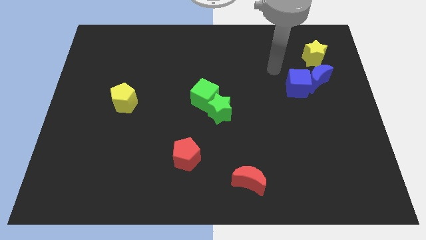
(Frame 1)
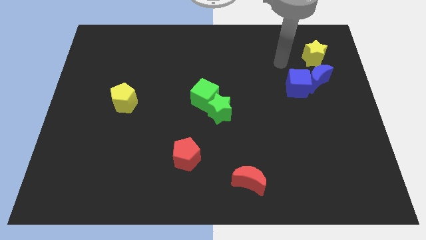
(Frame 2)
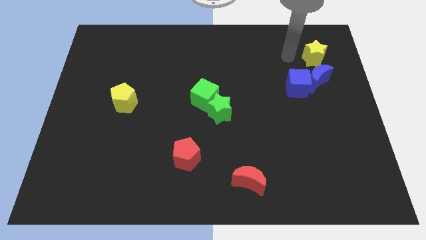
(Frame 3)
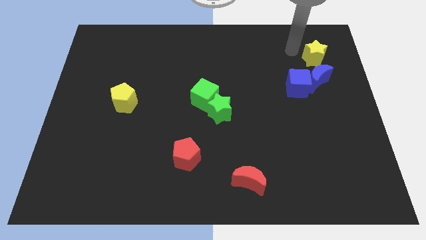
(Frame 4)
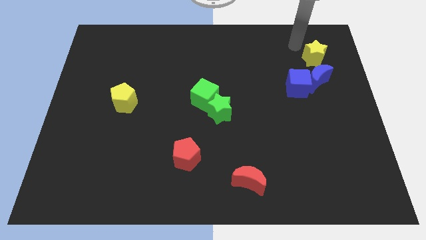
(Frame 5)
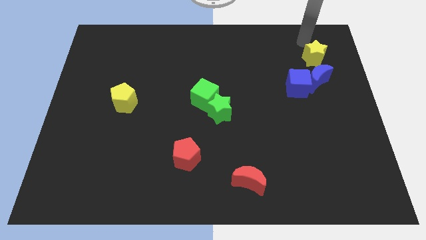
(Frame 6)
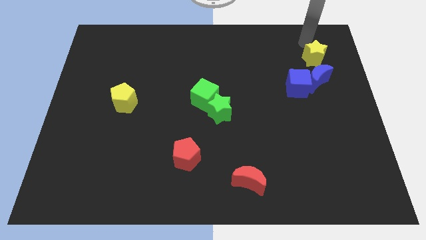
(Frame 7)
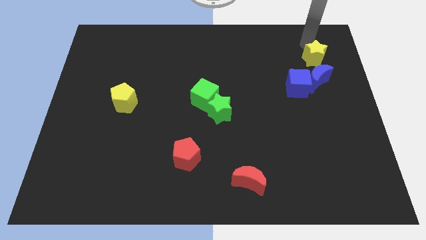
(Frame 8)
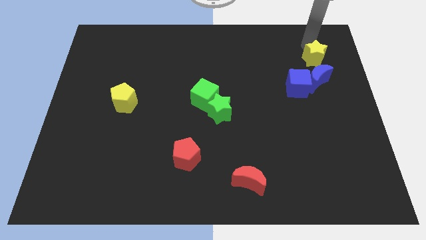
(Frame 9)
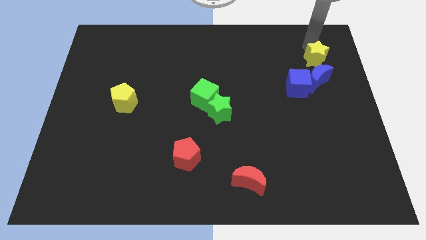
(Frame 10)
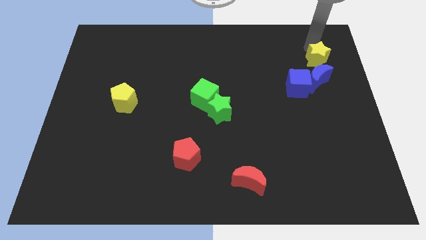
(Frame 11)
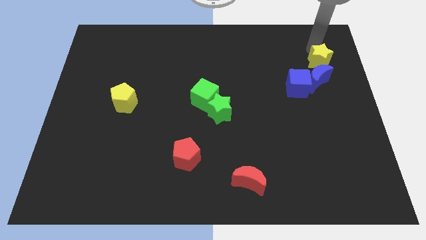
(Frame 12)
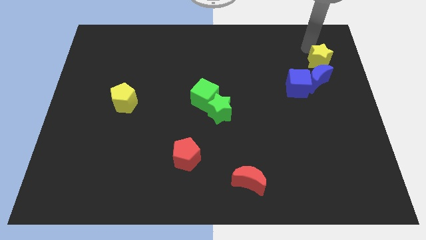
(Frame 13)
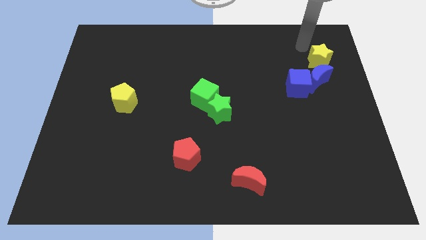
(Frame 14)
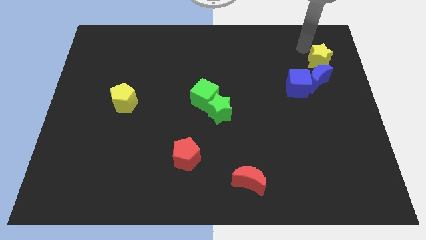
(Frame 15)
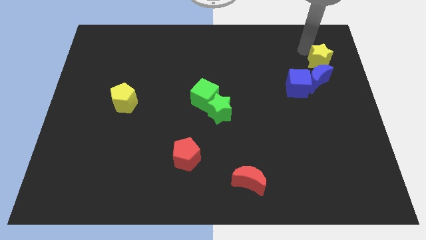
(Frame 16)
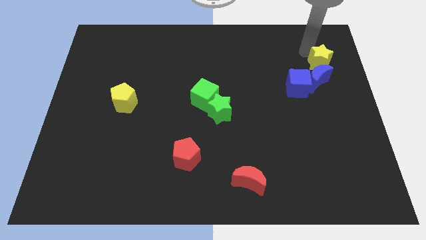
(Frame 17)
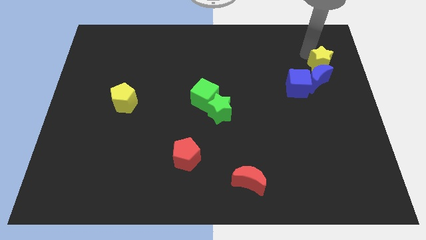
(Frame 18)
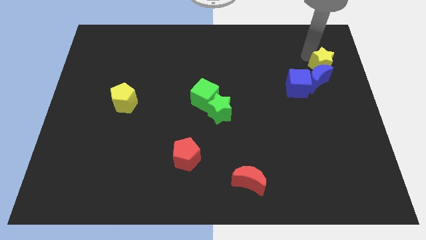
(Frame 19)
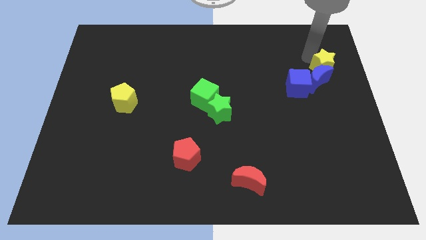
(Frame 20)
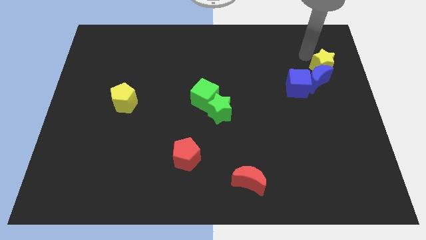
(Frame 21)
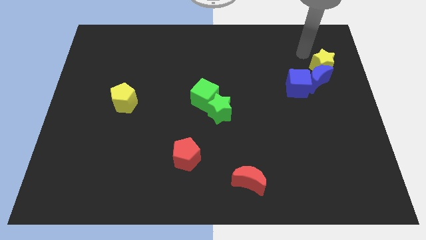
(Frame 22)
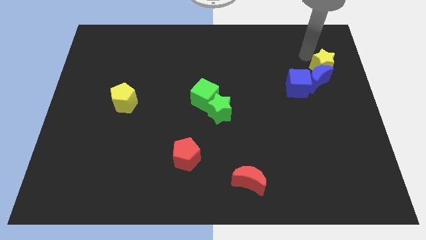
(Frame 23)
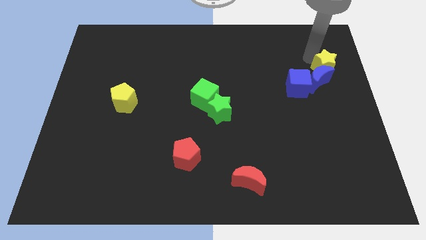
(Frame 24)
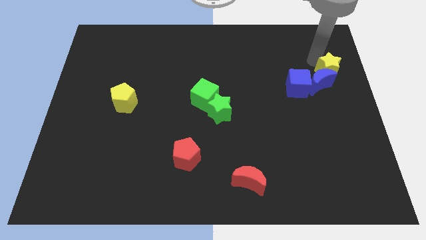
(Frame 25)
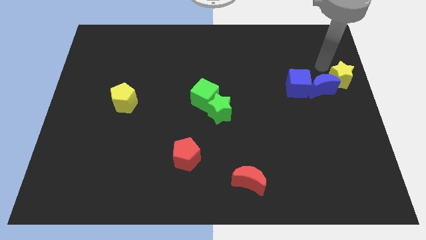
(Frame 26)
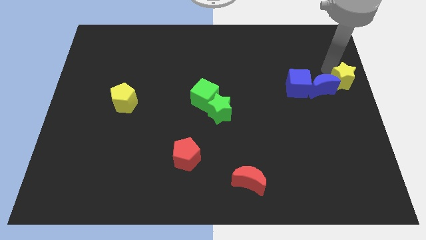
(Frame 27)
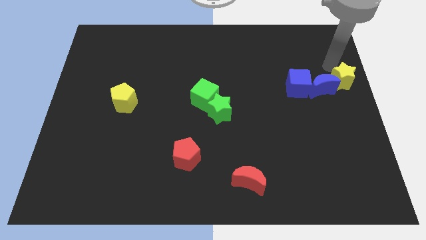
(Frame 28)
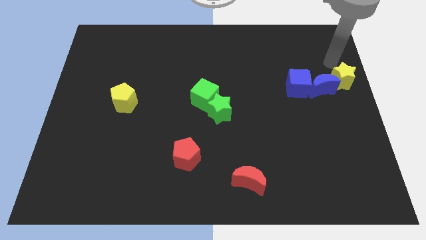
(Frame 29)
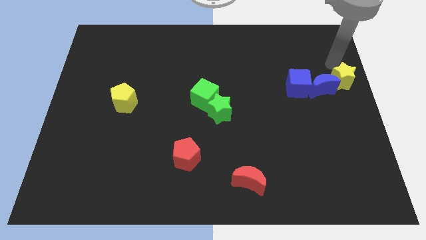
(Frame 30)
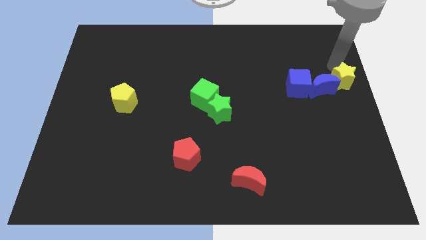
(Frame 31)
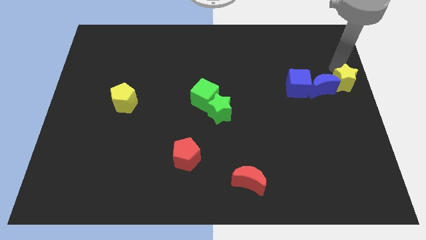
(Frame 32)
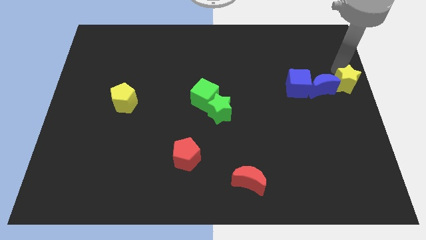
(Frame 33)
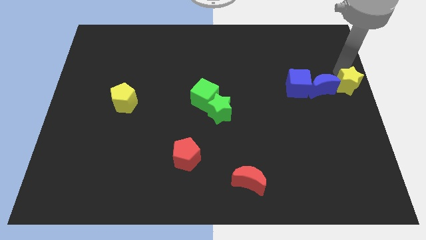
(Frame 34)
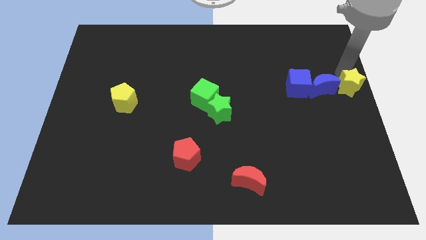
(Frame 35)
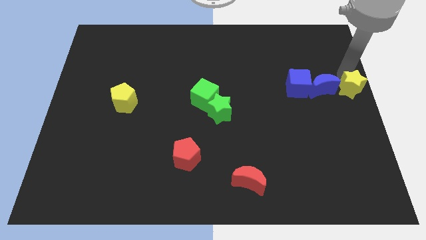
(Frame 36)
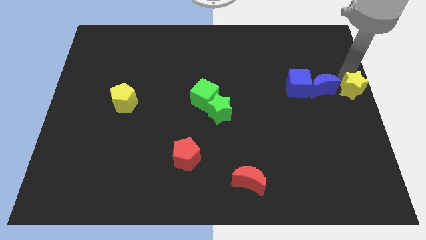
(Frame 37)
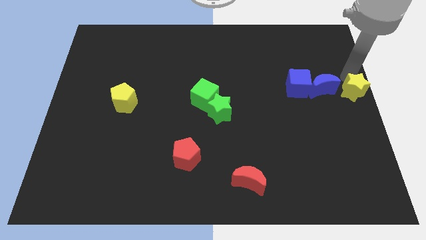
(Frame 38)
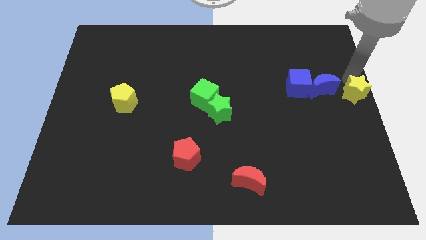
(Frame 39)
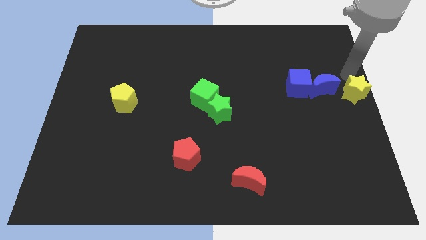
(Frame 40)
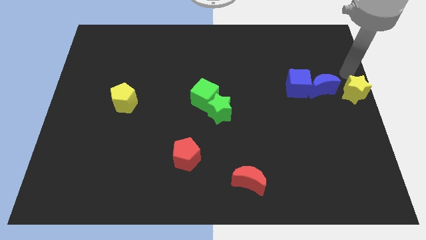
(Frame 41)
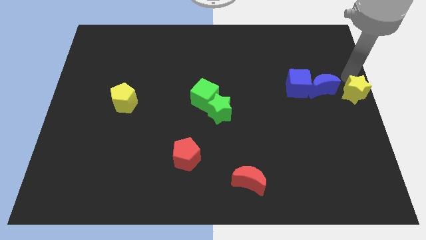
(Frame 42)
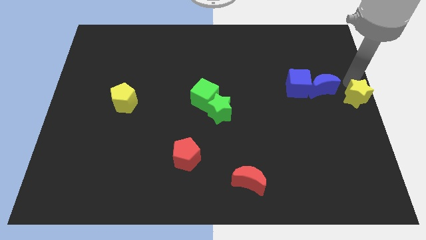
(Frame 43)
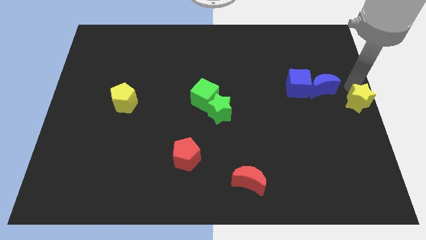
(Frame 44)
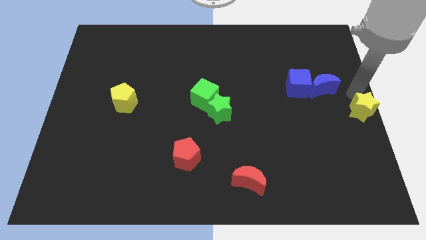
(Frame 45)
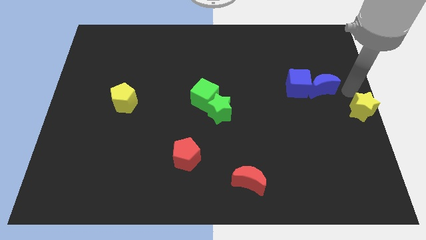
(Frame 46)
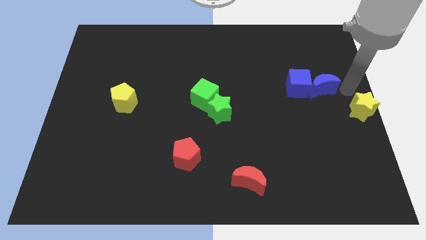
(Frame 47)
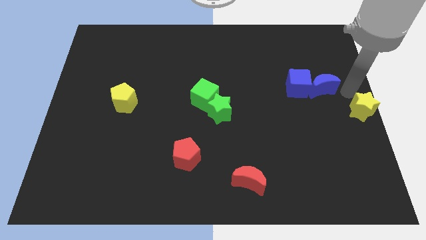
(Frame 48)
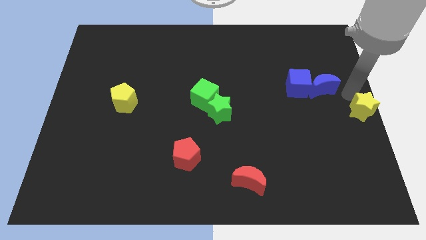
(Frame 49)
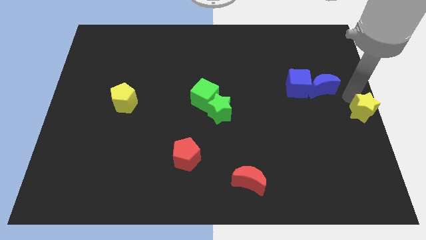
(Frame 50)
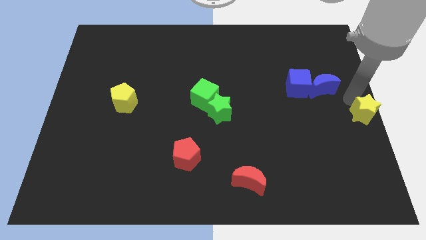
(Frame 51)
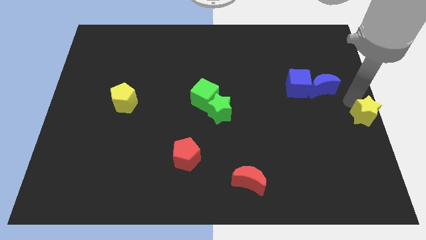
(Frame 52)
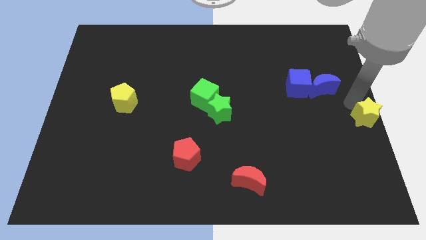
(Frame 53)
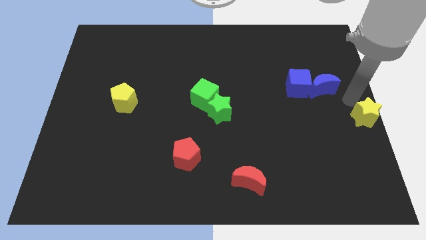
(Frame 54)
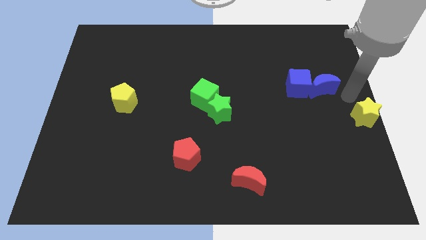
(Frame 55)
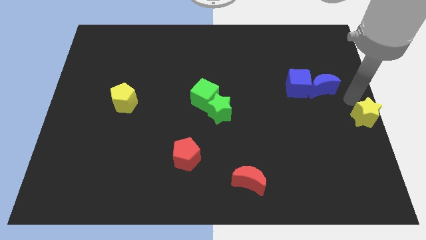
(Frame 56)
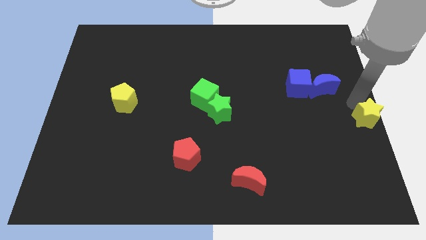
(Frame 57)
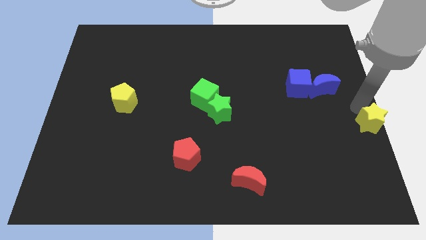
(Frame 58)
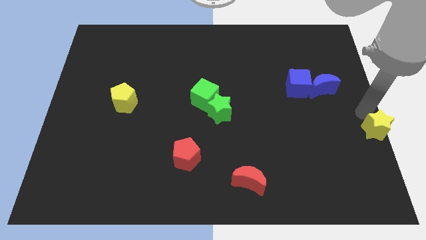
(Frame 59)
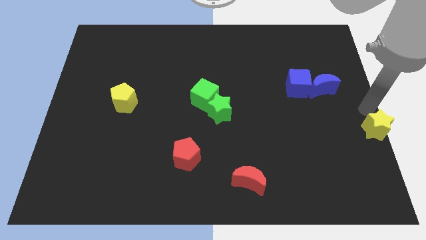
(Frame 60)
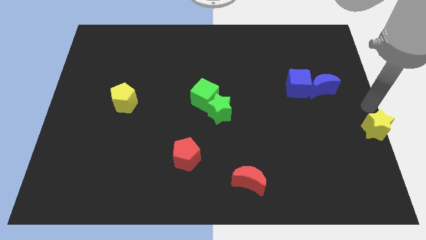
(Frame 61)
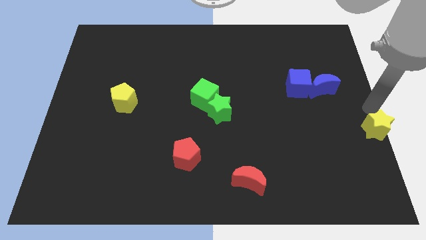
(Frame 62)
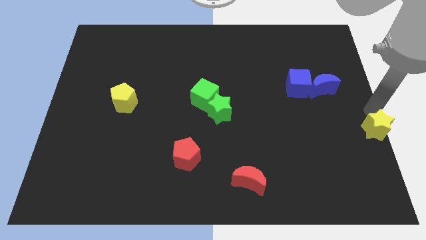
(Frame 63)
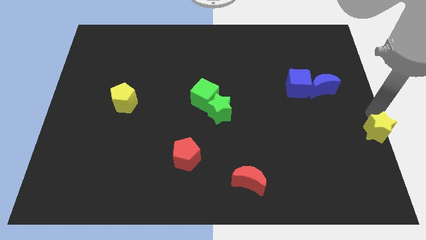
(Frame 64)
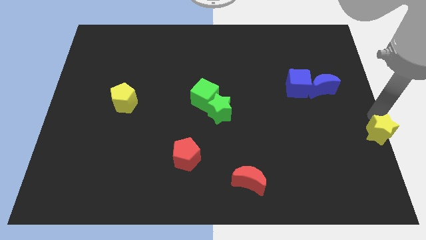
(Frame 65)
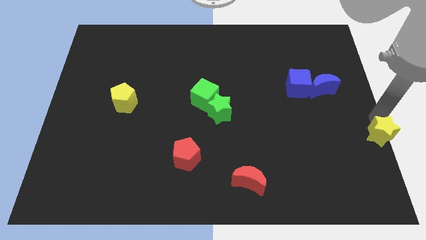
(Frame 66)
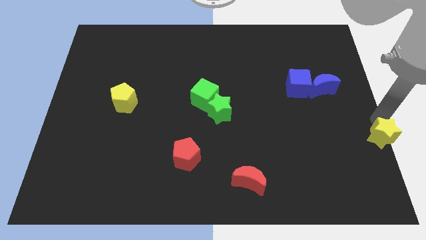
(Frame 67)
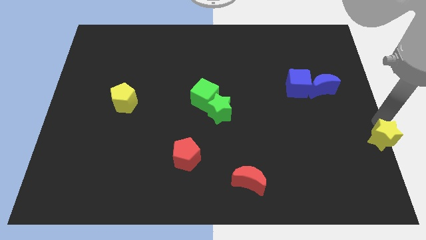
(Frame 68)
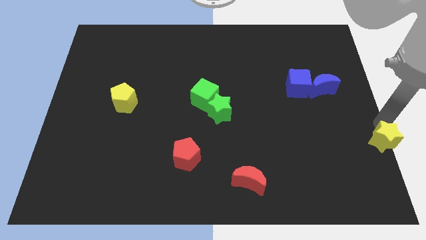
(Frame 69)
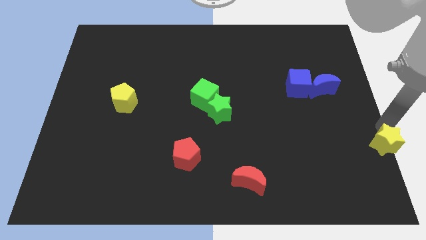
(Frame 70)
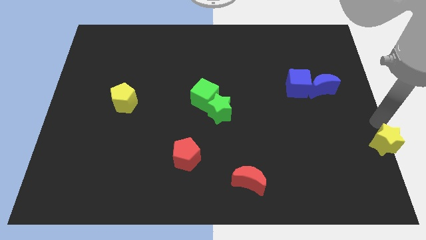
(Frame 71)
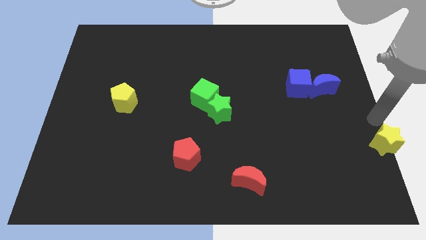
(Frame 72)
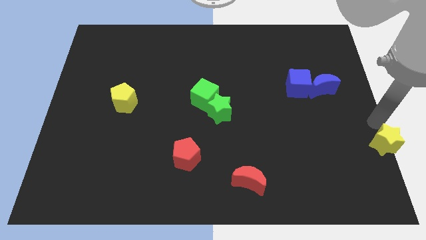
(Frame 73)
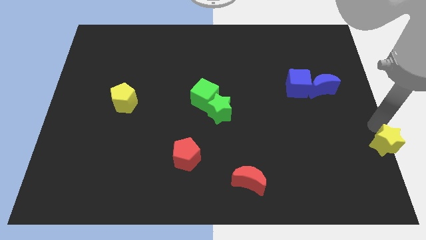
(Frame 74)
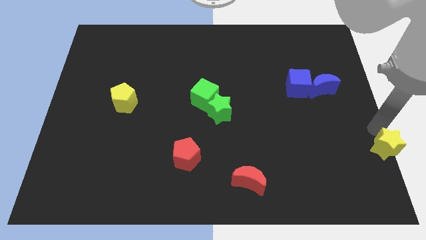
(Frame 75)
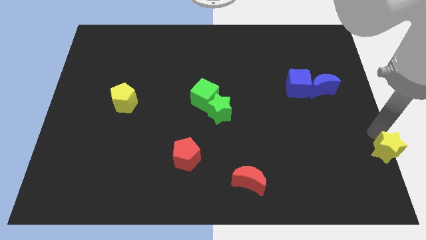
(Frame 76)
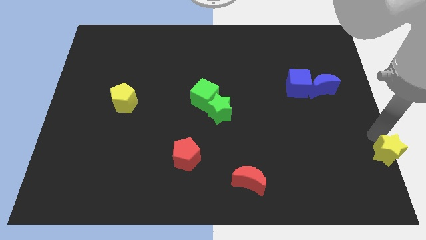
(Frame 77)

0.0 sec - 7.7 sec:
slide the yellow star to the bottom right corner
